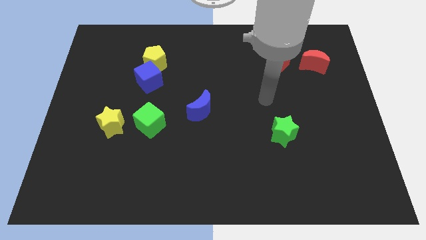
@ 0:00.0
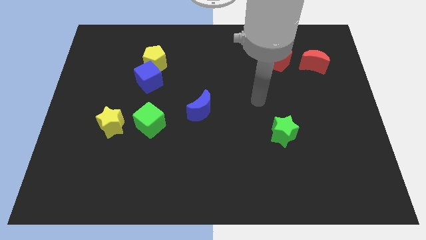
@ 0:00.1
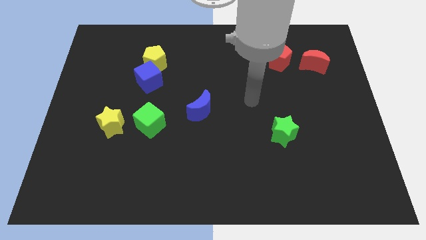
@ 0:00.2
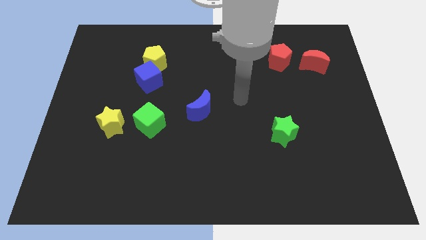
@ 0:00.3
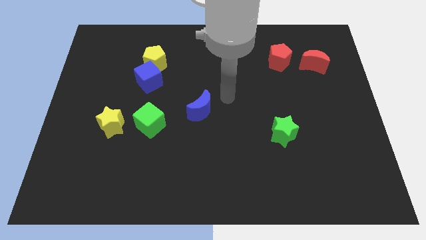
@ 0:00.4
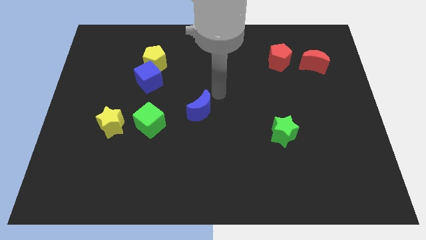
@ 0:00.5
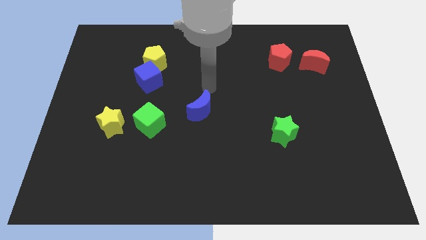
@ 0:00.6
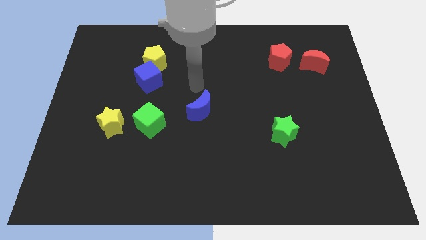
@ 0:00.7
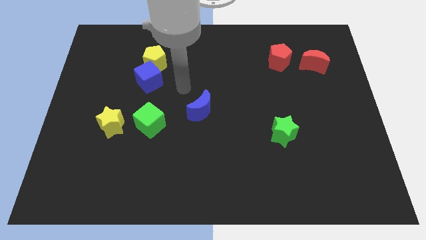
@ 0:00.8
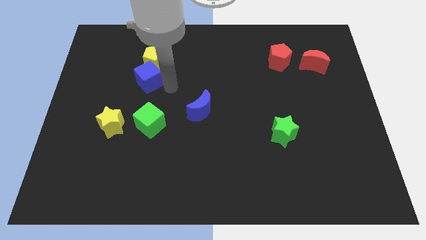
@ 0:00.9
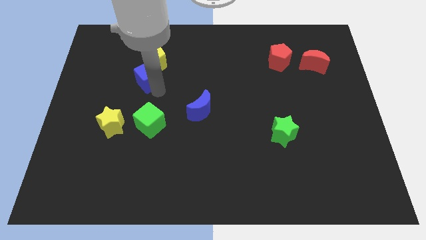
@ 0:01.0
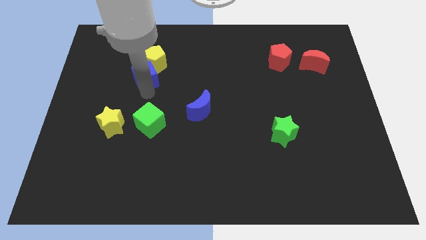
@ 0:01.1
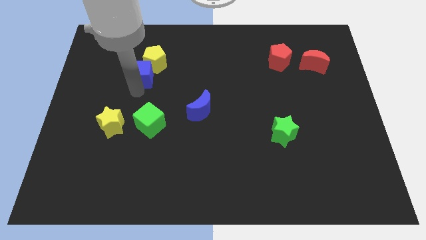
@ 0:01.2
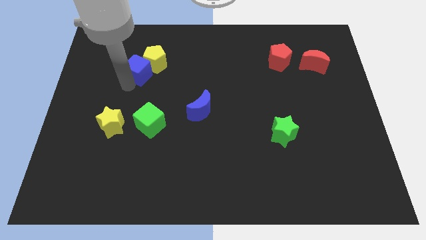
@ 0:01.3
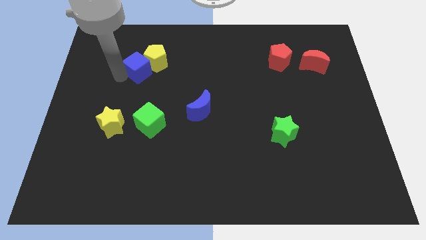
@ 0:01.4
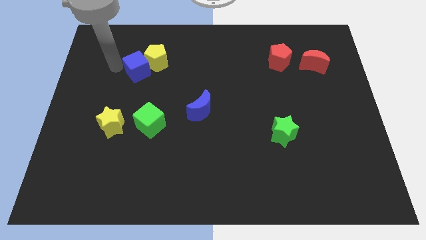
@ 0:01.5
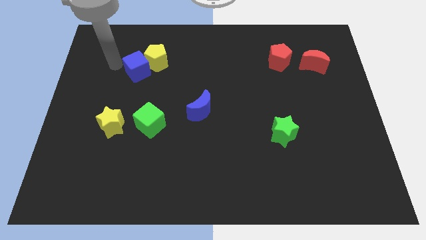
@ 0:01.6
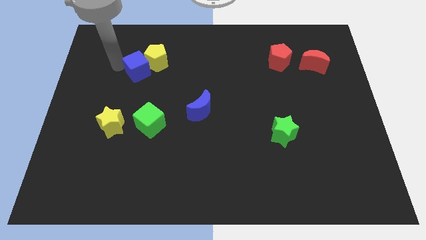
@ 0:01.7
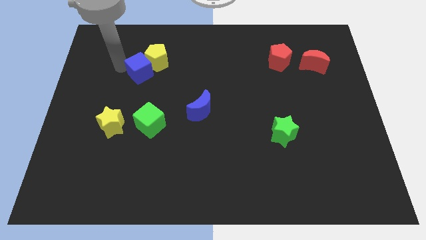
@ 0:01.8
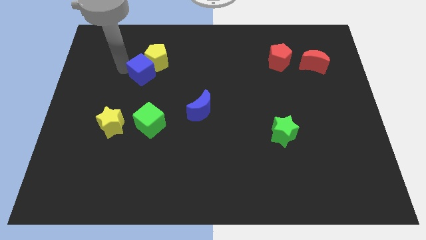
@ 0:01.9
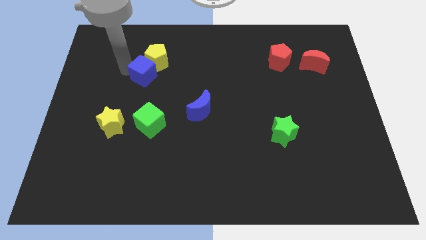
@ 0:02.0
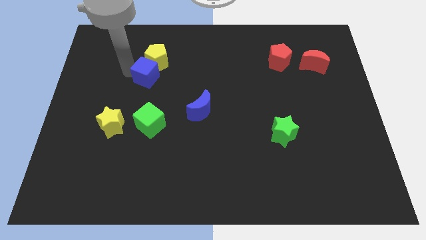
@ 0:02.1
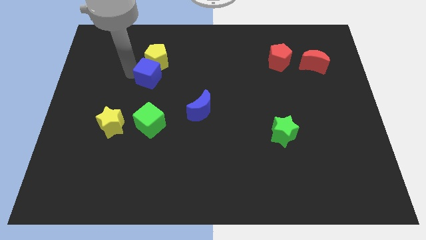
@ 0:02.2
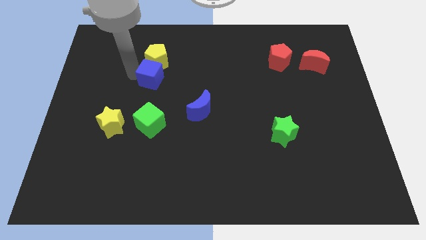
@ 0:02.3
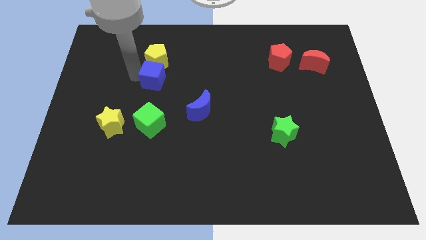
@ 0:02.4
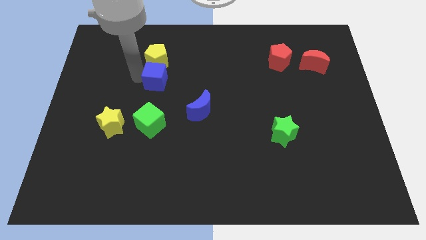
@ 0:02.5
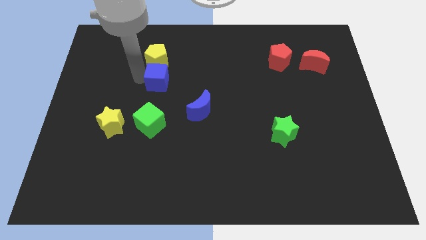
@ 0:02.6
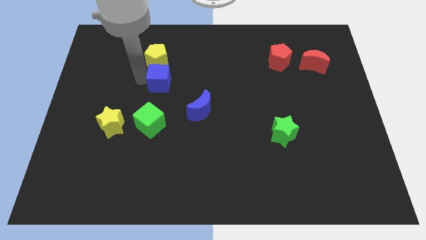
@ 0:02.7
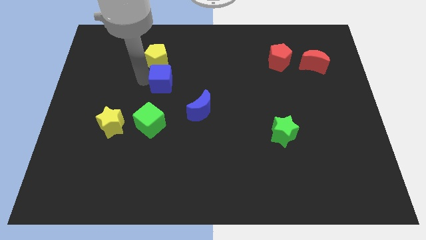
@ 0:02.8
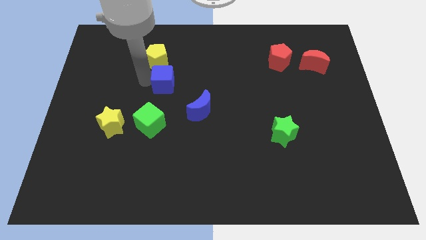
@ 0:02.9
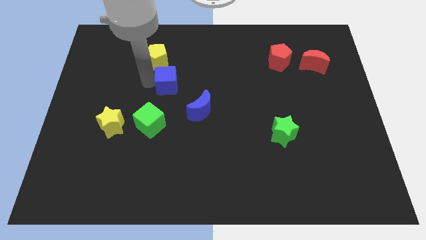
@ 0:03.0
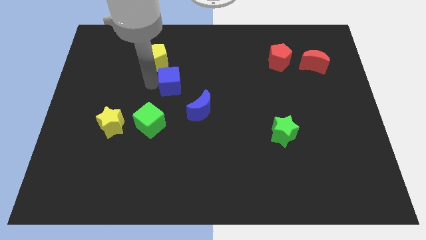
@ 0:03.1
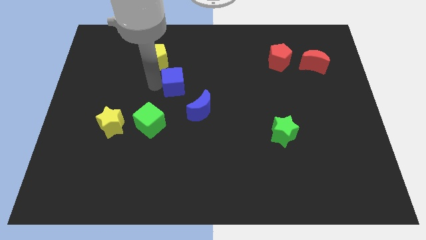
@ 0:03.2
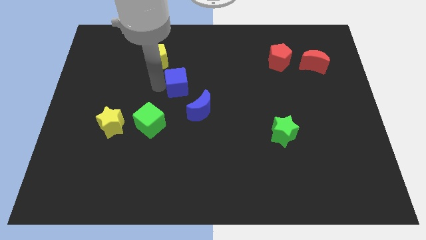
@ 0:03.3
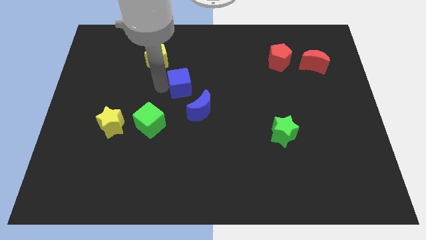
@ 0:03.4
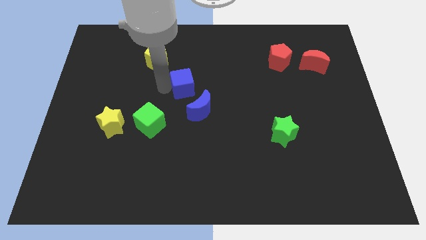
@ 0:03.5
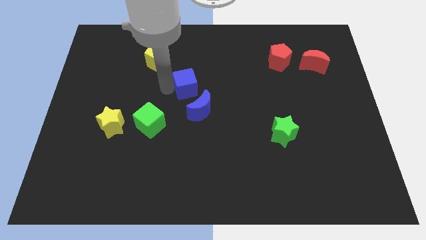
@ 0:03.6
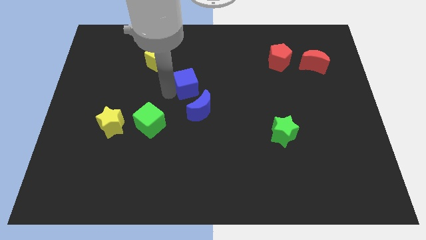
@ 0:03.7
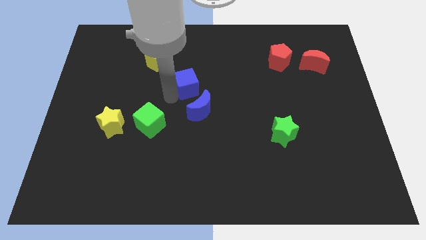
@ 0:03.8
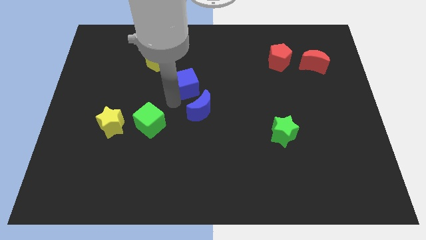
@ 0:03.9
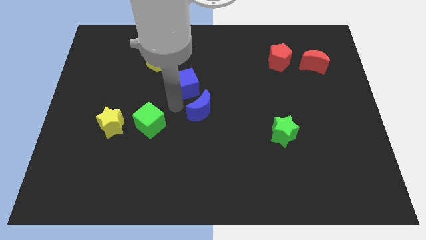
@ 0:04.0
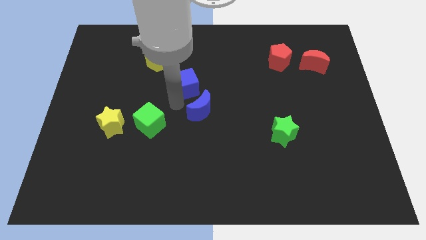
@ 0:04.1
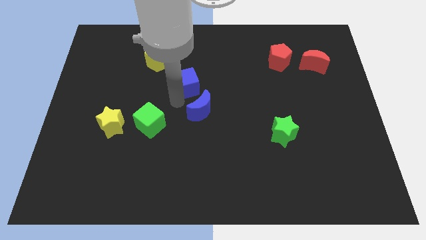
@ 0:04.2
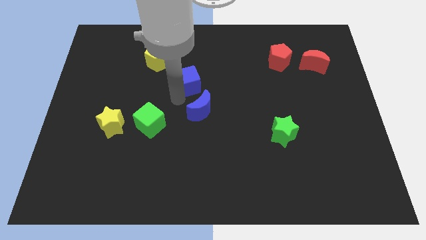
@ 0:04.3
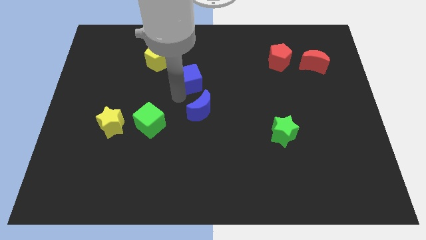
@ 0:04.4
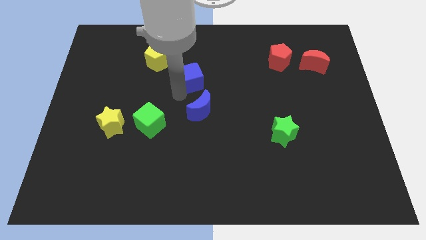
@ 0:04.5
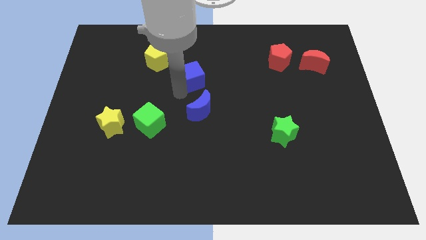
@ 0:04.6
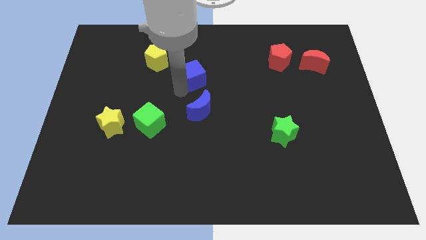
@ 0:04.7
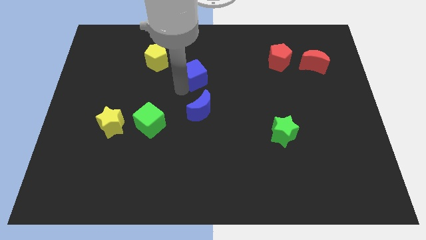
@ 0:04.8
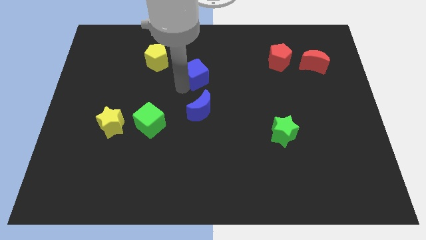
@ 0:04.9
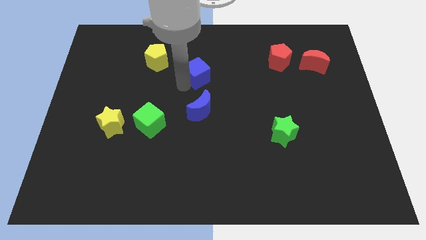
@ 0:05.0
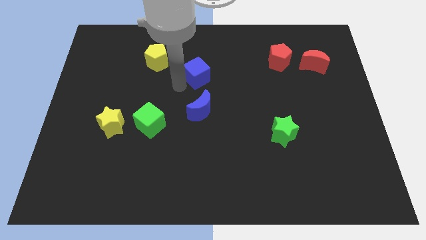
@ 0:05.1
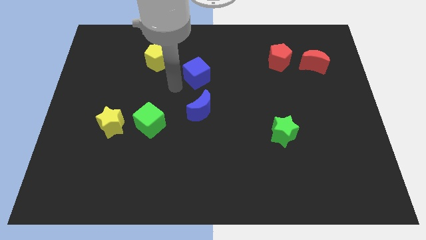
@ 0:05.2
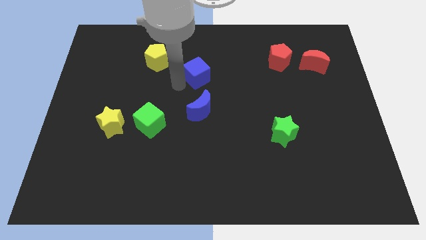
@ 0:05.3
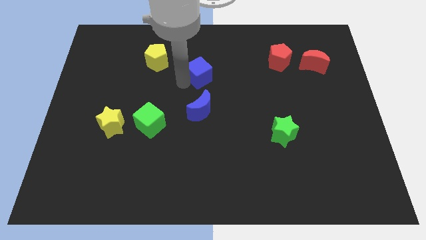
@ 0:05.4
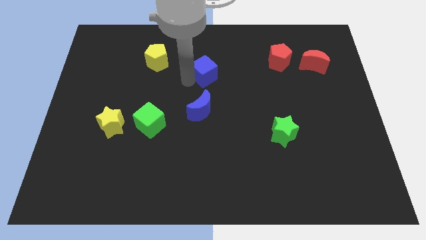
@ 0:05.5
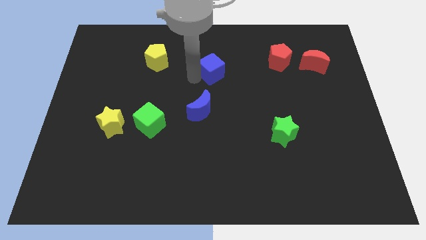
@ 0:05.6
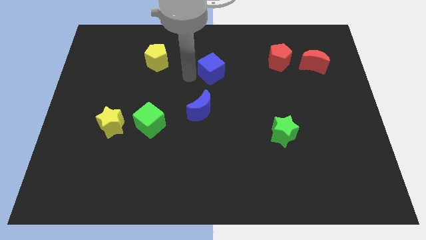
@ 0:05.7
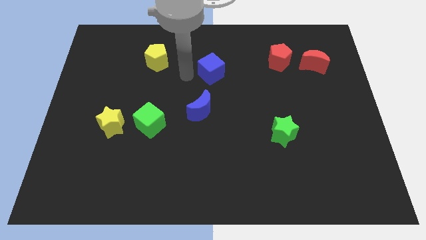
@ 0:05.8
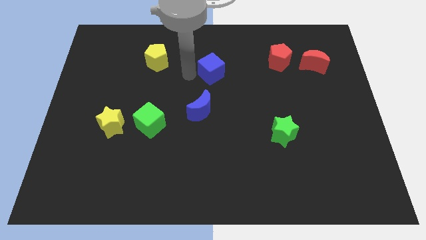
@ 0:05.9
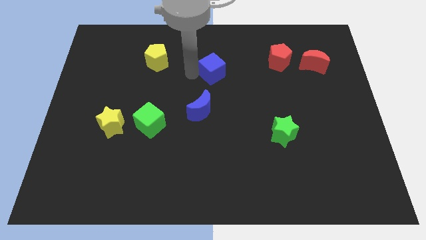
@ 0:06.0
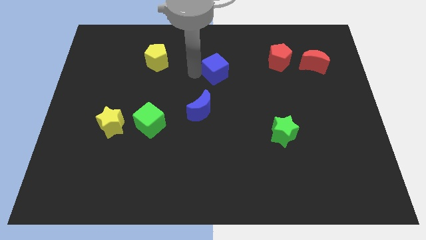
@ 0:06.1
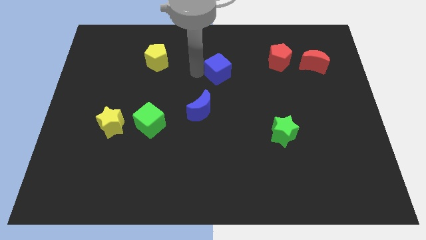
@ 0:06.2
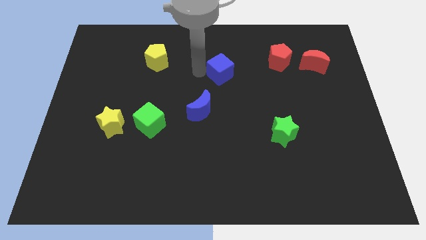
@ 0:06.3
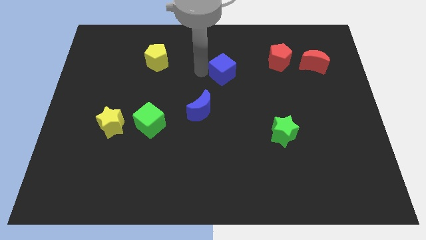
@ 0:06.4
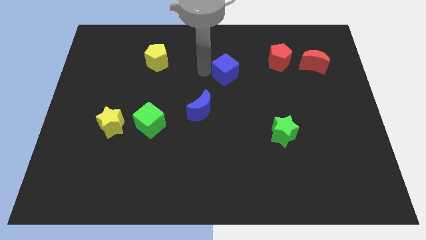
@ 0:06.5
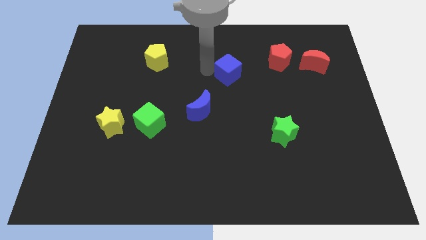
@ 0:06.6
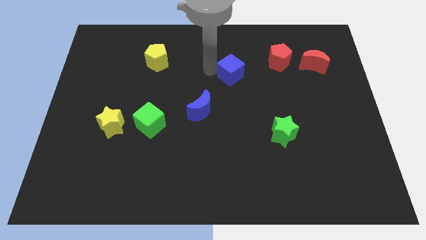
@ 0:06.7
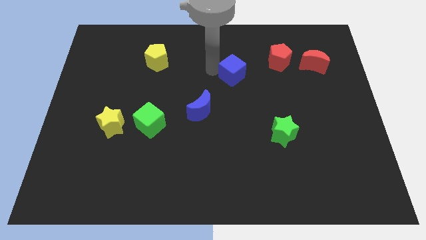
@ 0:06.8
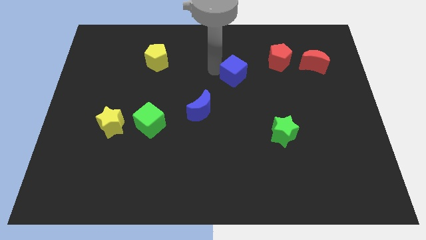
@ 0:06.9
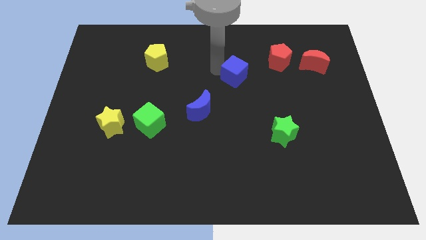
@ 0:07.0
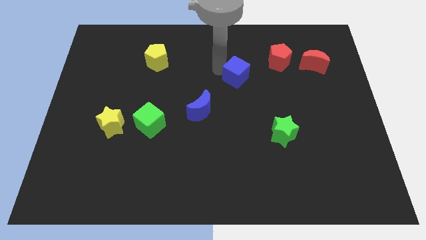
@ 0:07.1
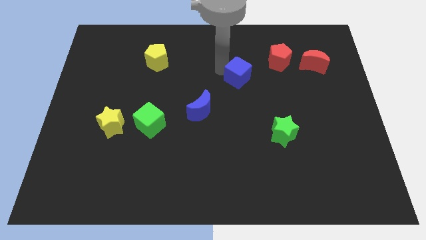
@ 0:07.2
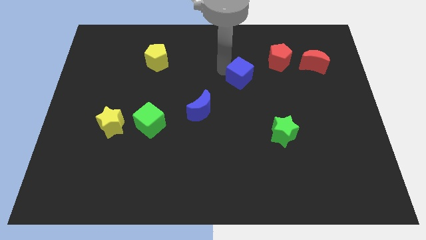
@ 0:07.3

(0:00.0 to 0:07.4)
slide the blue cube to the bottom left side of the red pentagon
